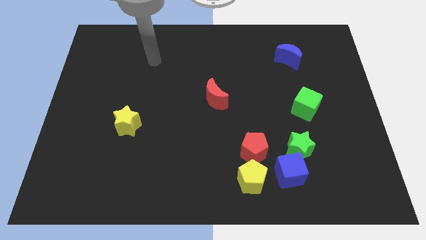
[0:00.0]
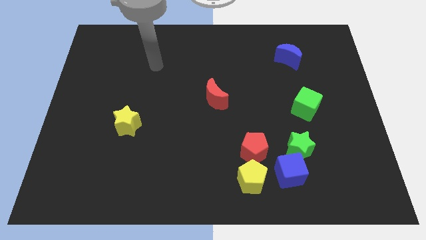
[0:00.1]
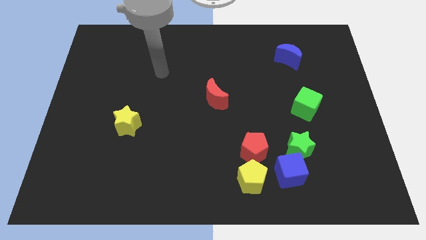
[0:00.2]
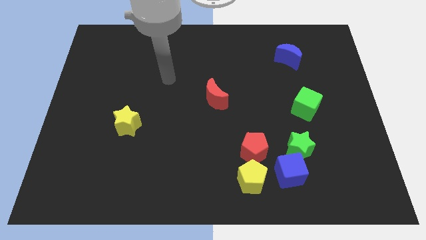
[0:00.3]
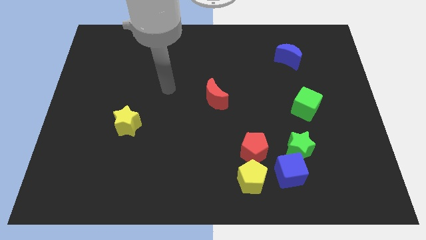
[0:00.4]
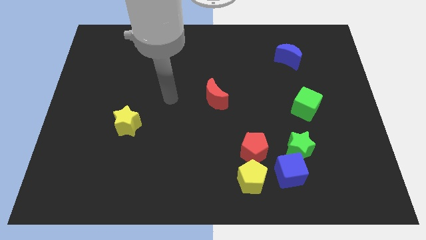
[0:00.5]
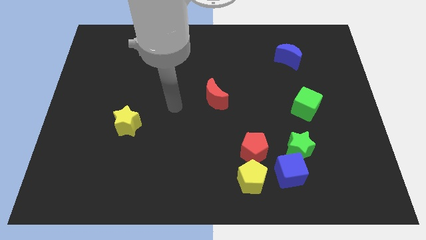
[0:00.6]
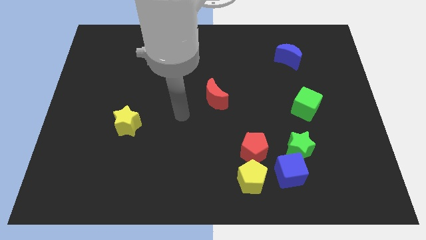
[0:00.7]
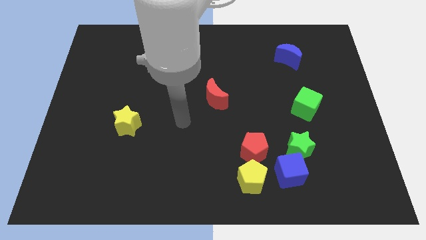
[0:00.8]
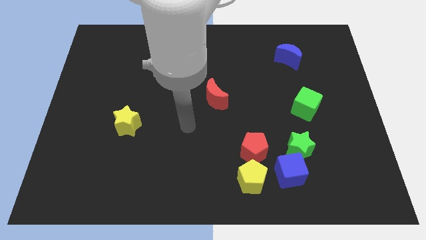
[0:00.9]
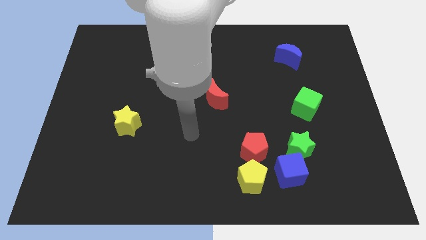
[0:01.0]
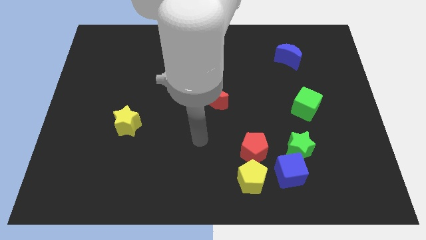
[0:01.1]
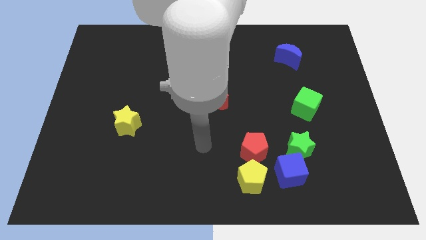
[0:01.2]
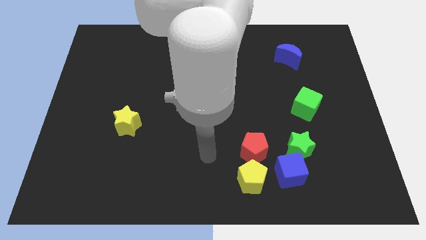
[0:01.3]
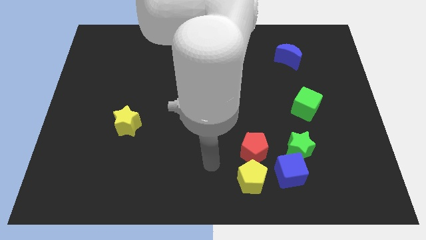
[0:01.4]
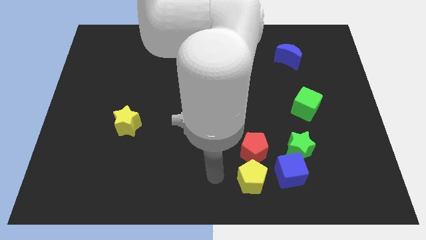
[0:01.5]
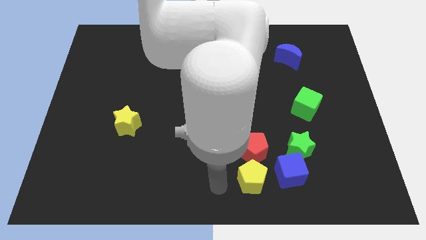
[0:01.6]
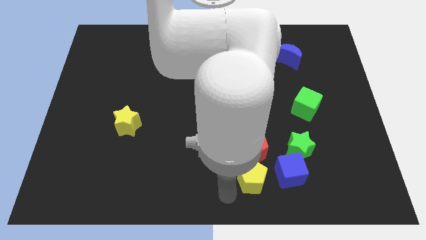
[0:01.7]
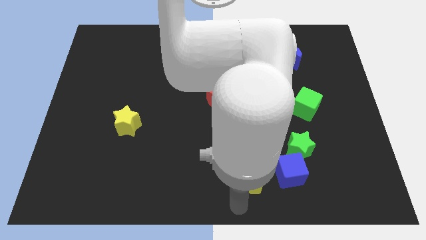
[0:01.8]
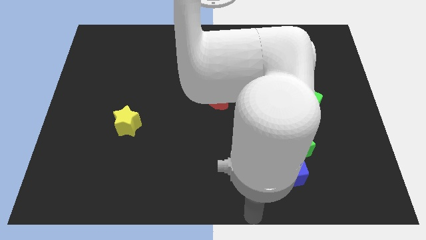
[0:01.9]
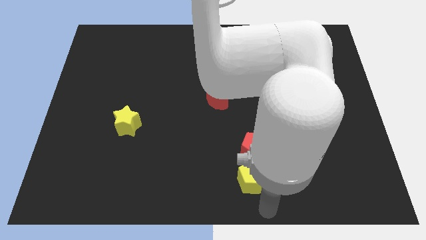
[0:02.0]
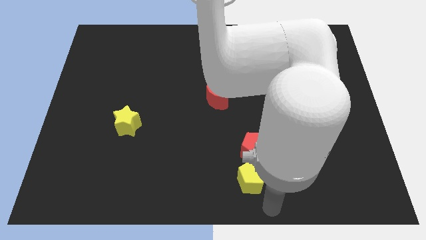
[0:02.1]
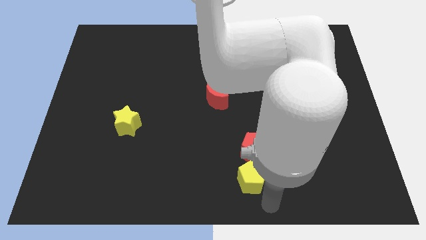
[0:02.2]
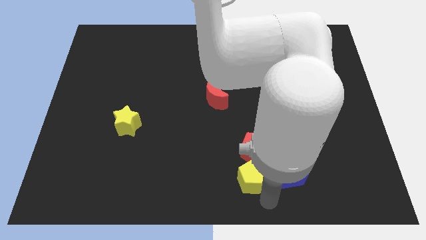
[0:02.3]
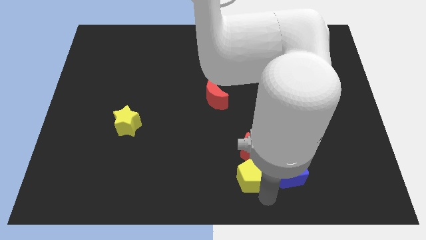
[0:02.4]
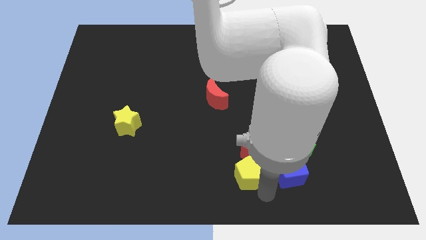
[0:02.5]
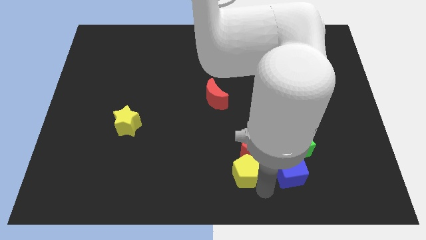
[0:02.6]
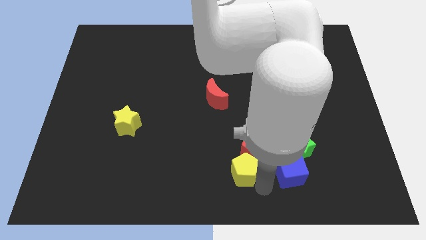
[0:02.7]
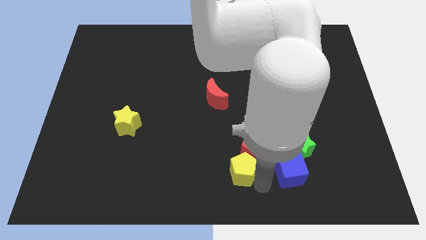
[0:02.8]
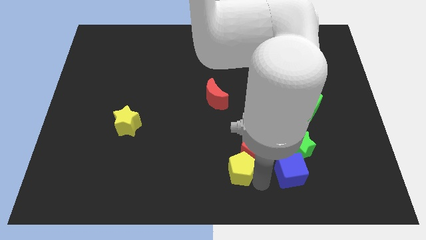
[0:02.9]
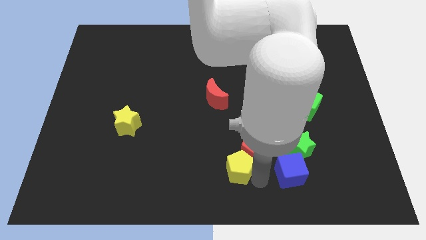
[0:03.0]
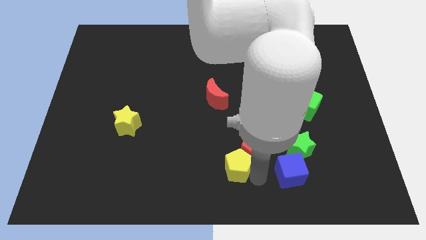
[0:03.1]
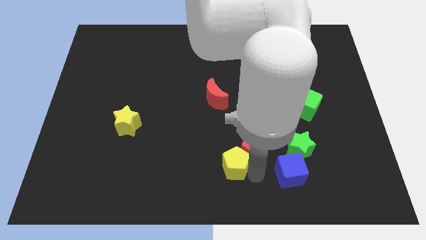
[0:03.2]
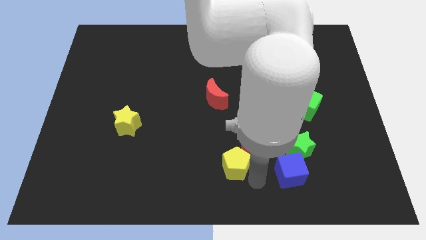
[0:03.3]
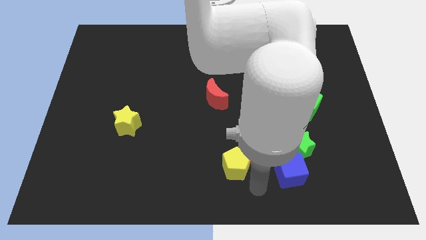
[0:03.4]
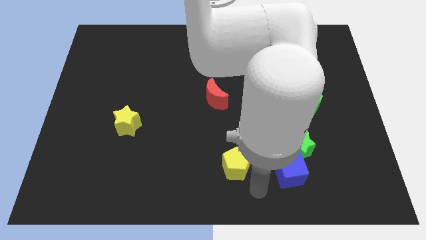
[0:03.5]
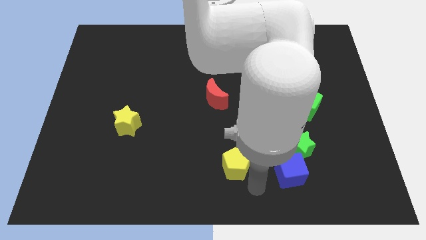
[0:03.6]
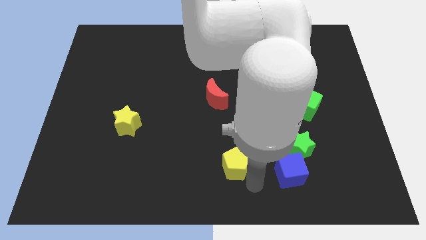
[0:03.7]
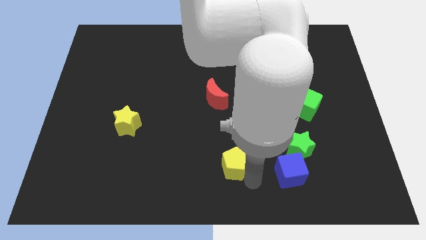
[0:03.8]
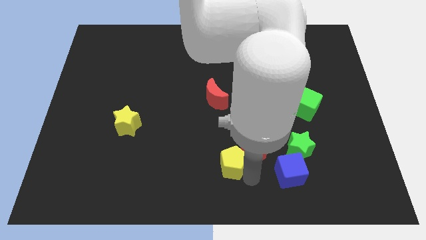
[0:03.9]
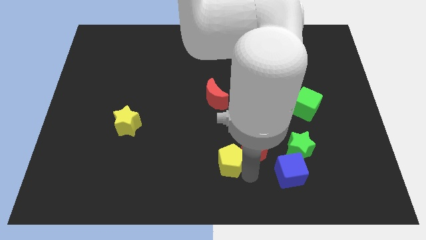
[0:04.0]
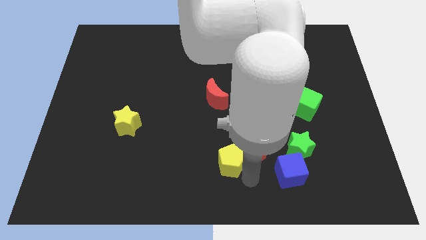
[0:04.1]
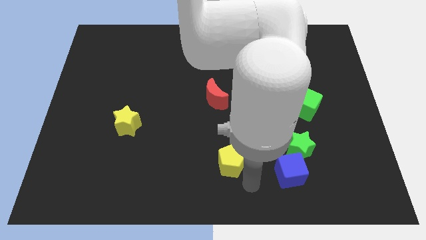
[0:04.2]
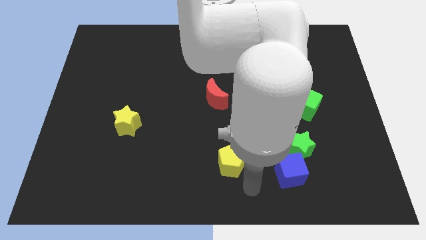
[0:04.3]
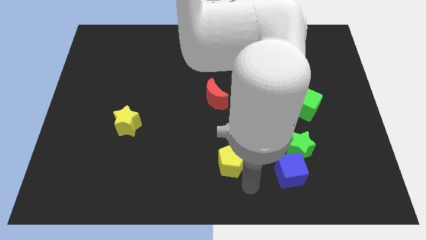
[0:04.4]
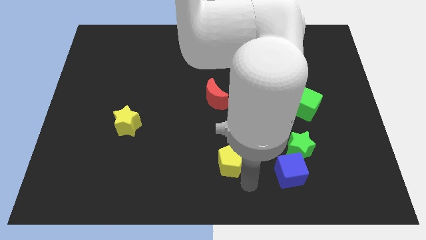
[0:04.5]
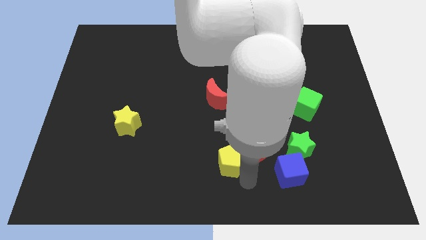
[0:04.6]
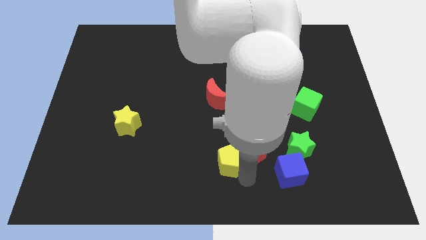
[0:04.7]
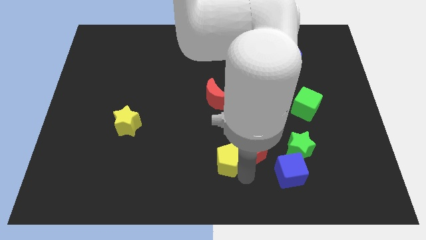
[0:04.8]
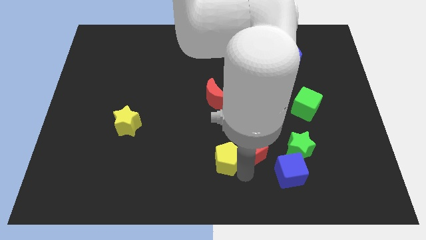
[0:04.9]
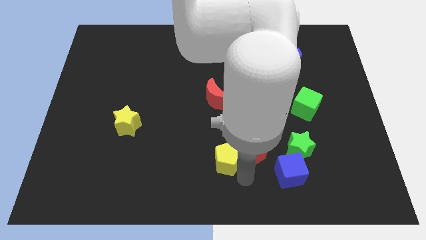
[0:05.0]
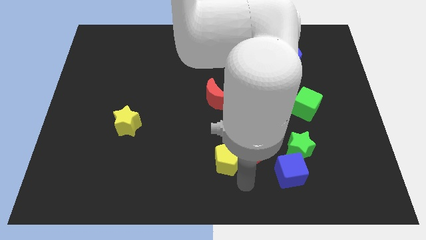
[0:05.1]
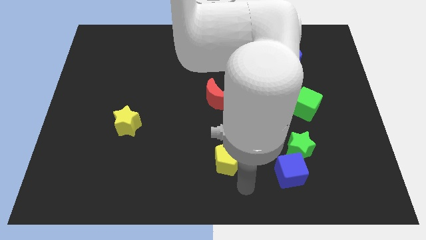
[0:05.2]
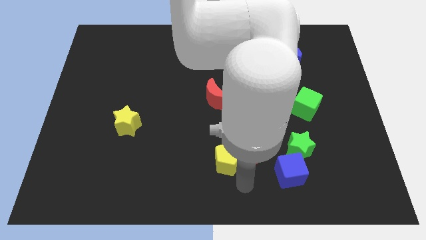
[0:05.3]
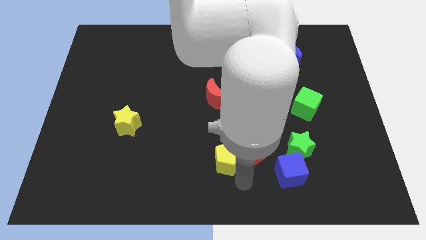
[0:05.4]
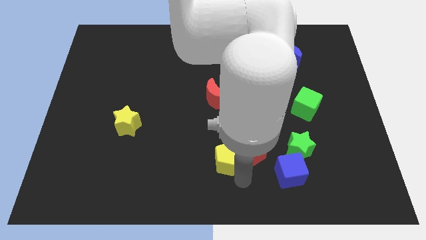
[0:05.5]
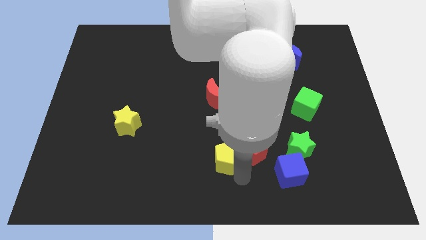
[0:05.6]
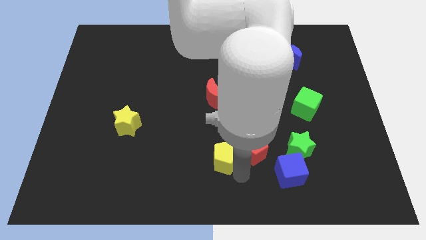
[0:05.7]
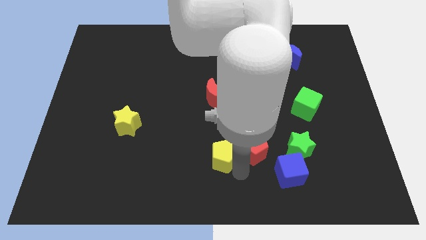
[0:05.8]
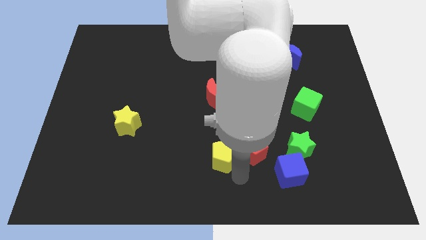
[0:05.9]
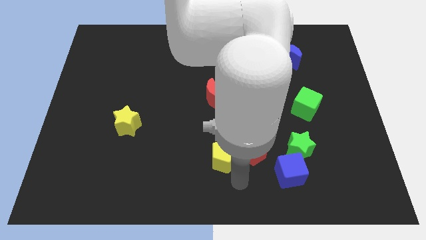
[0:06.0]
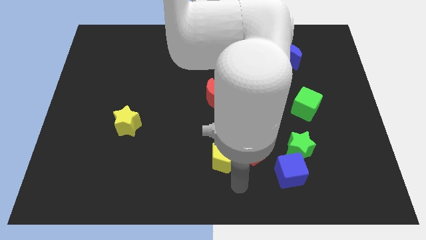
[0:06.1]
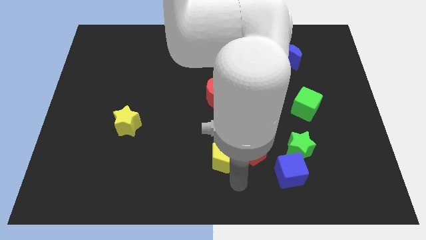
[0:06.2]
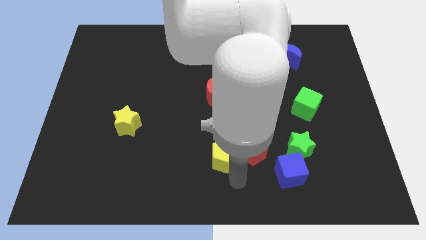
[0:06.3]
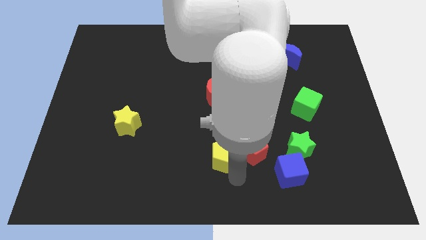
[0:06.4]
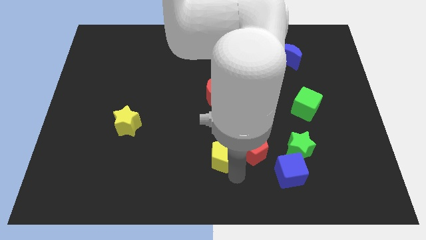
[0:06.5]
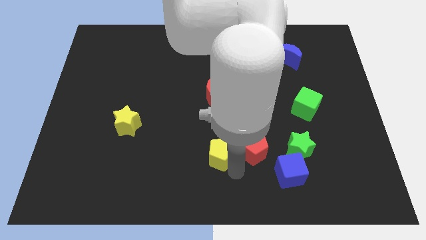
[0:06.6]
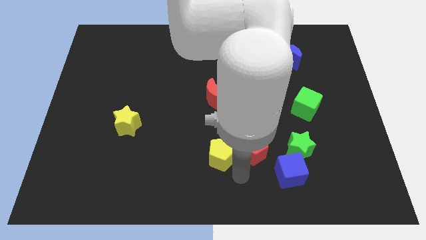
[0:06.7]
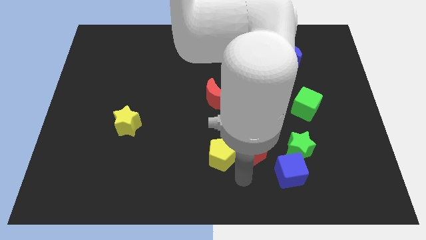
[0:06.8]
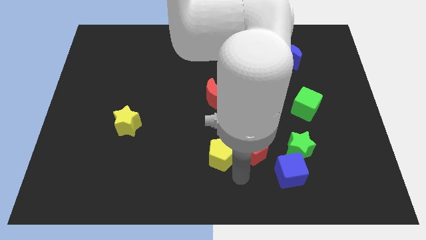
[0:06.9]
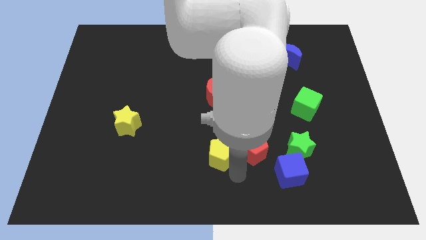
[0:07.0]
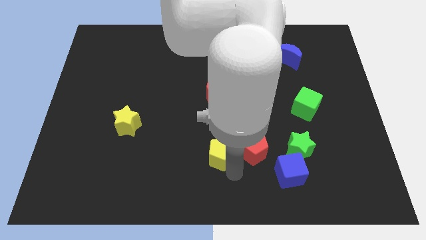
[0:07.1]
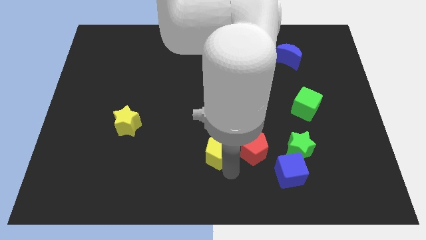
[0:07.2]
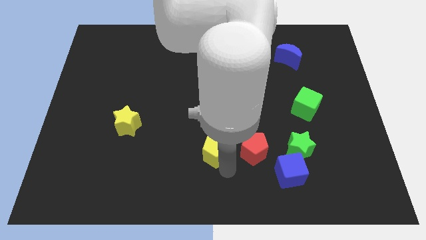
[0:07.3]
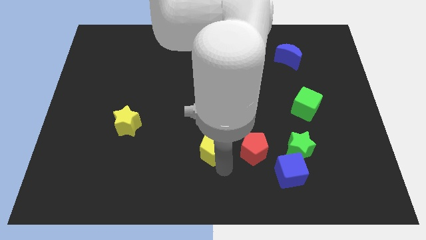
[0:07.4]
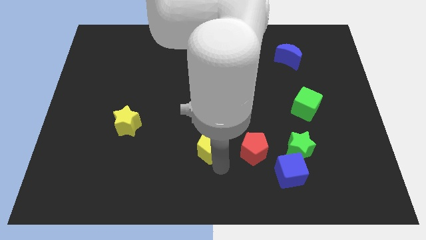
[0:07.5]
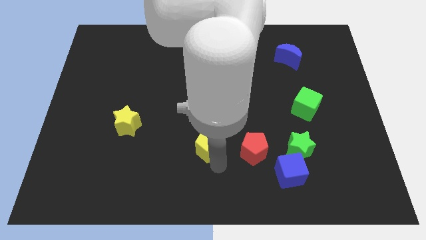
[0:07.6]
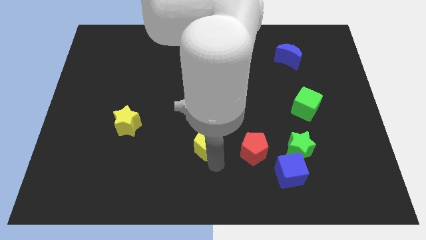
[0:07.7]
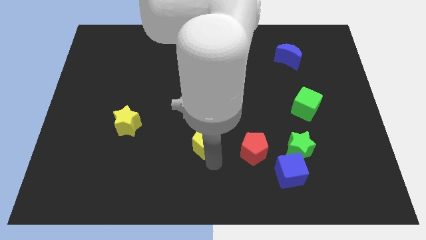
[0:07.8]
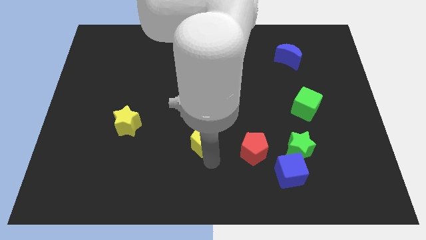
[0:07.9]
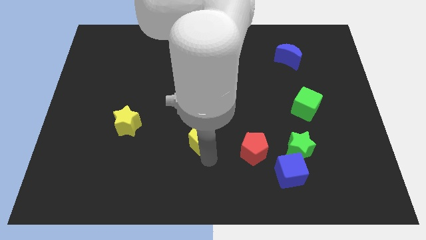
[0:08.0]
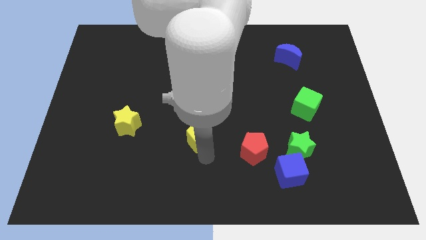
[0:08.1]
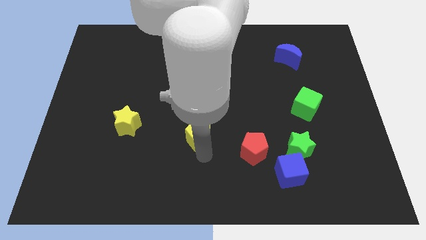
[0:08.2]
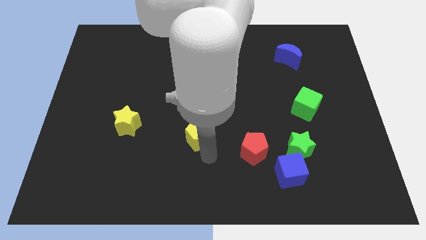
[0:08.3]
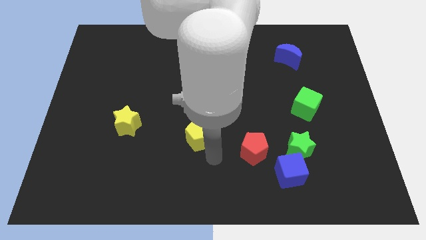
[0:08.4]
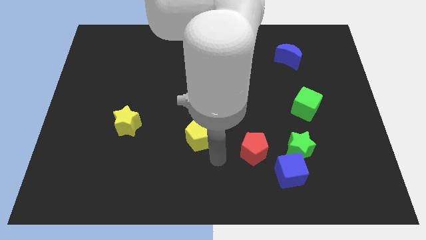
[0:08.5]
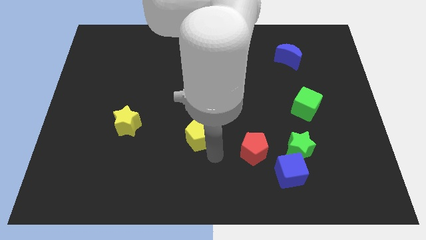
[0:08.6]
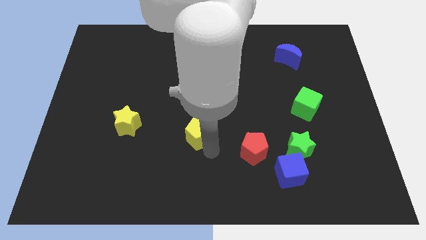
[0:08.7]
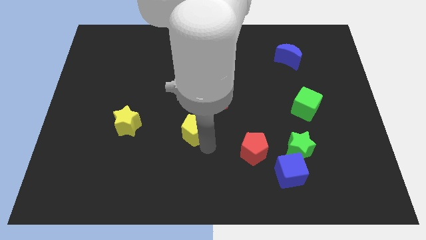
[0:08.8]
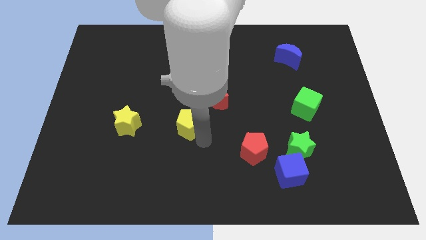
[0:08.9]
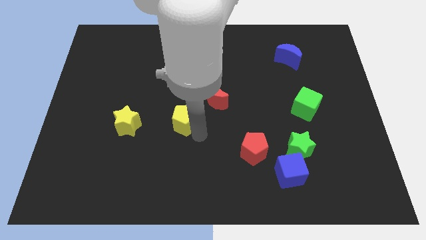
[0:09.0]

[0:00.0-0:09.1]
move the yellow pentagon upwards and then left
